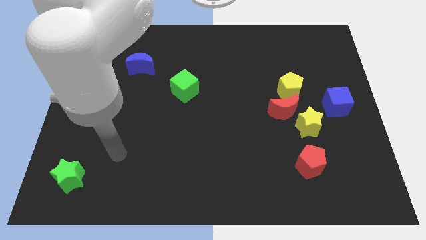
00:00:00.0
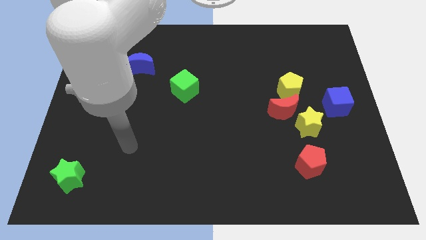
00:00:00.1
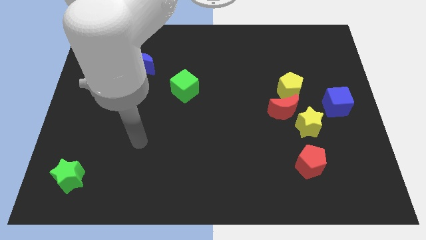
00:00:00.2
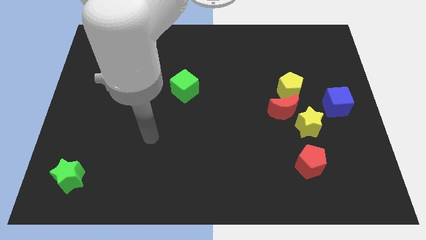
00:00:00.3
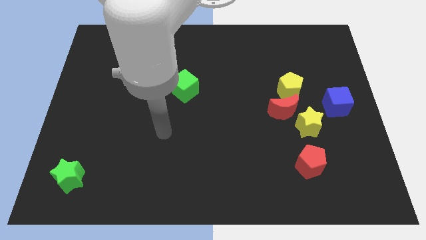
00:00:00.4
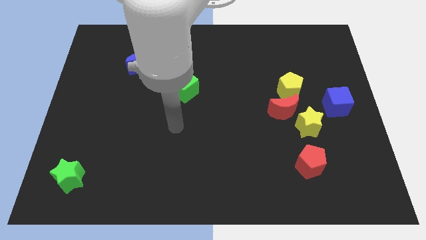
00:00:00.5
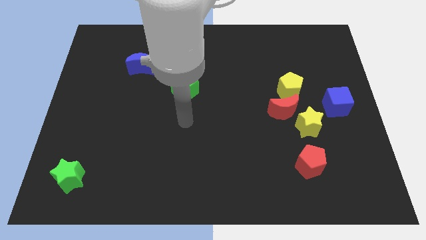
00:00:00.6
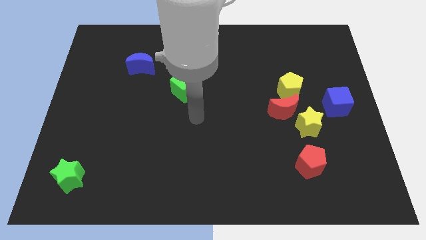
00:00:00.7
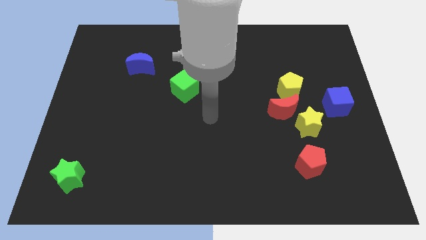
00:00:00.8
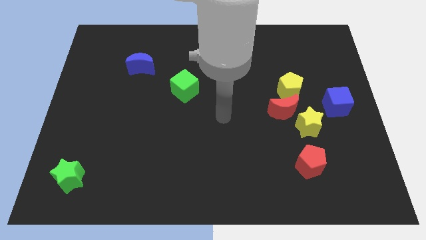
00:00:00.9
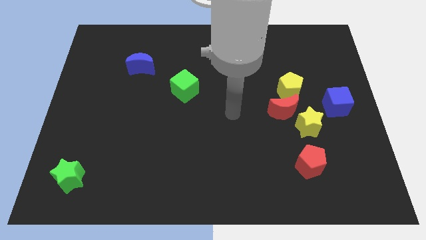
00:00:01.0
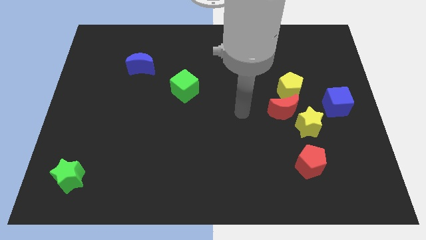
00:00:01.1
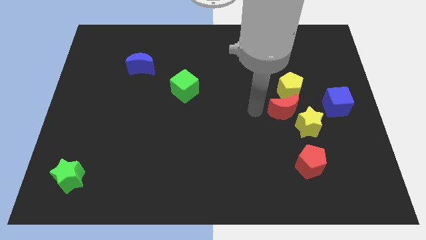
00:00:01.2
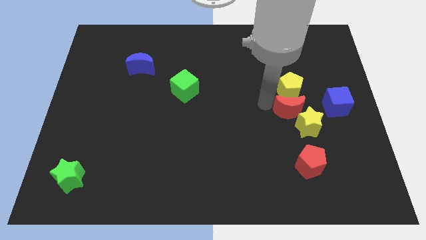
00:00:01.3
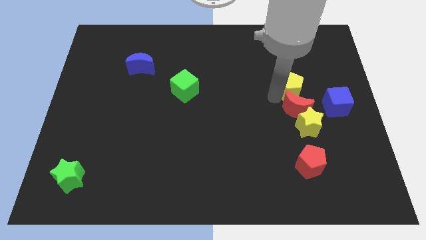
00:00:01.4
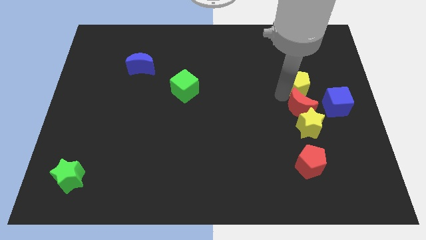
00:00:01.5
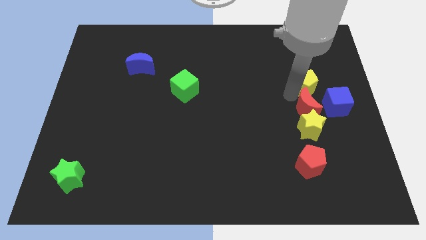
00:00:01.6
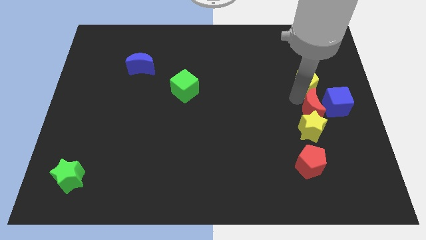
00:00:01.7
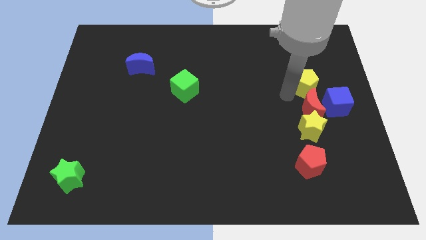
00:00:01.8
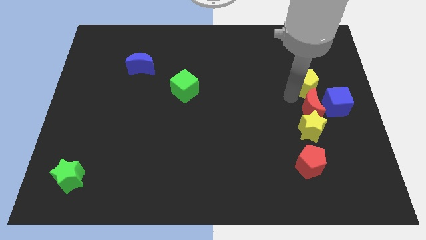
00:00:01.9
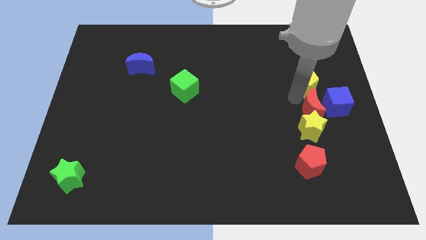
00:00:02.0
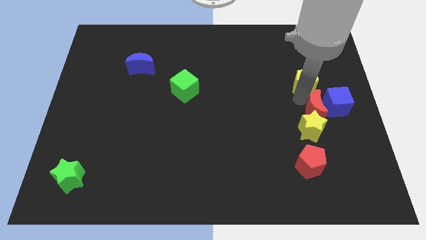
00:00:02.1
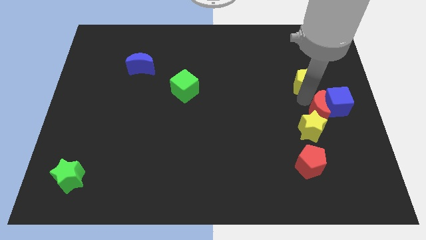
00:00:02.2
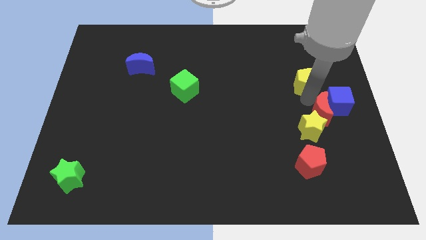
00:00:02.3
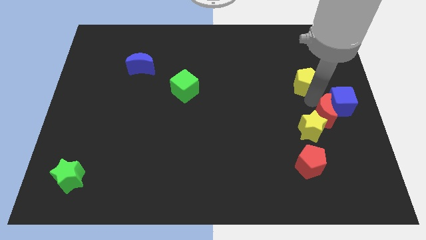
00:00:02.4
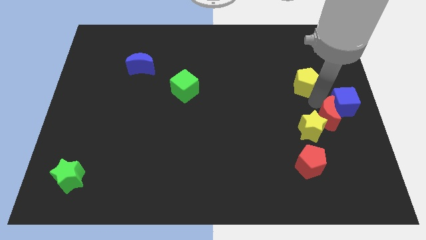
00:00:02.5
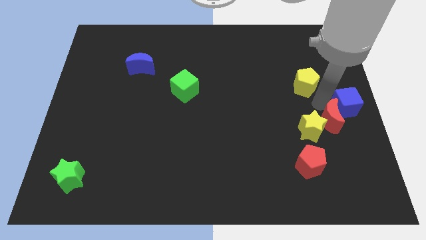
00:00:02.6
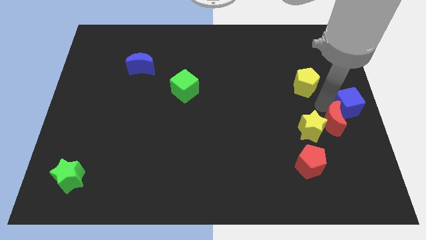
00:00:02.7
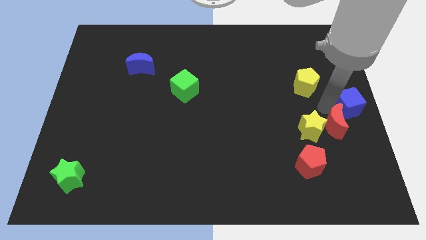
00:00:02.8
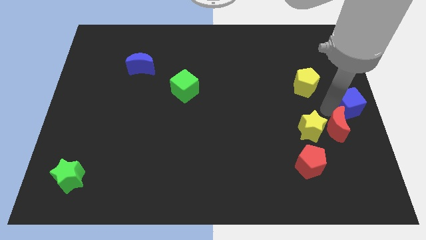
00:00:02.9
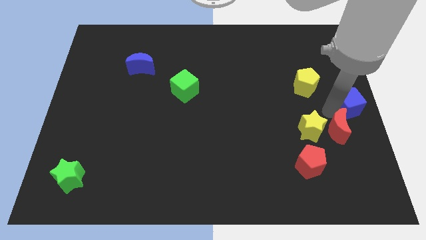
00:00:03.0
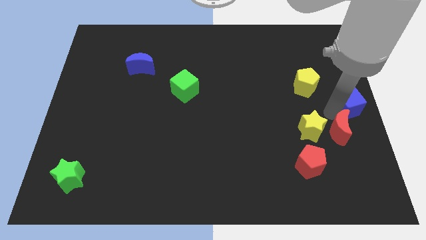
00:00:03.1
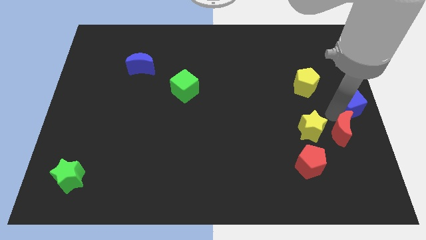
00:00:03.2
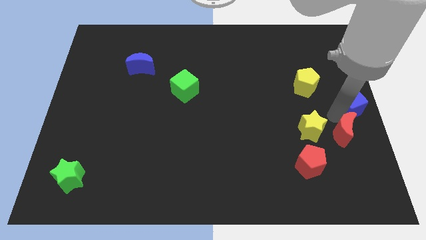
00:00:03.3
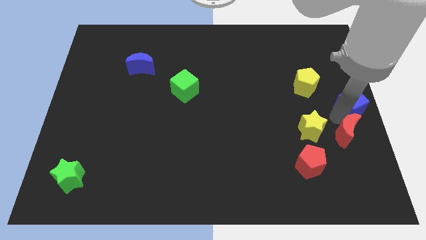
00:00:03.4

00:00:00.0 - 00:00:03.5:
separate the red moon from the yellow star and yellow pentagon

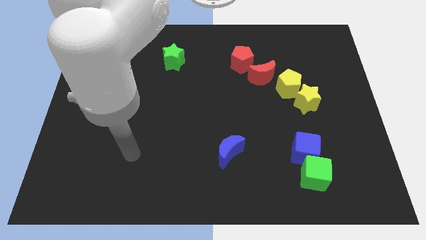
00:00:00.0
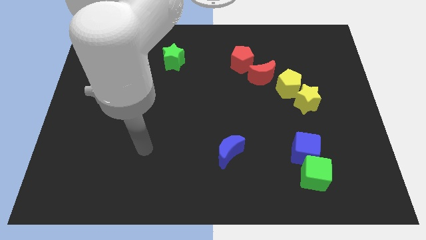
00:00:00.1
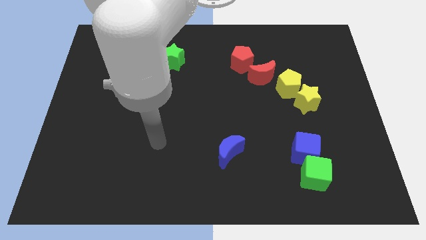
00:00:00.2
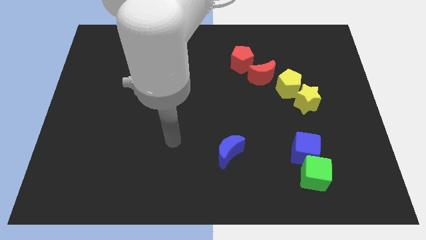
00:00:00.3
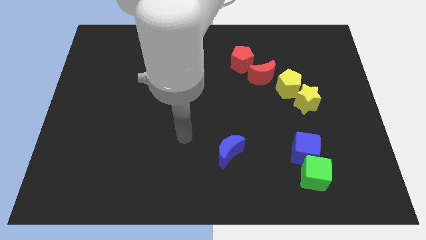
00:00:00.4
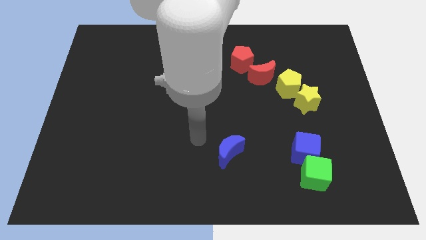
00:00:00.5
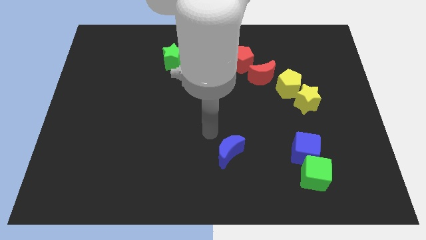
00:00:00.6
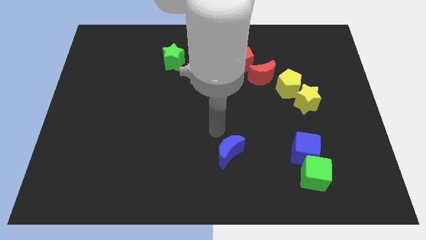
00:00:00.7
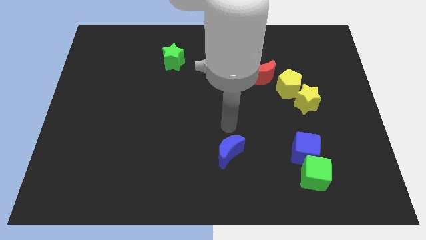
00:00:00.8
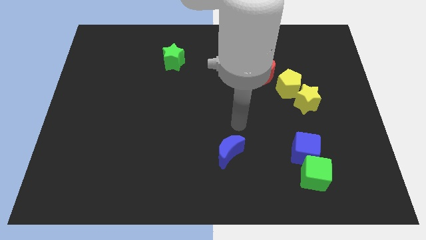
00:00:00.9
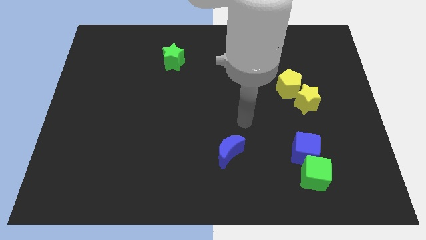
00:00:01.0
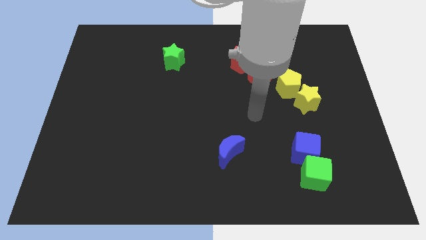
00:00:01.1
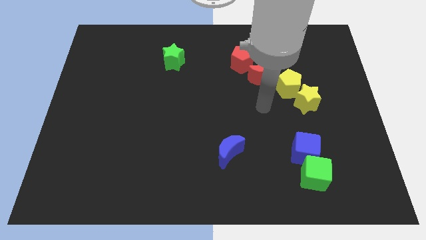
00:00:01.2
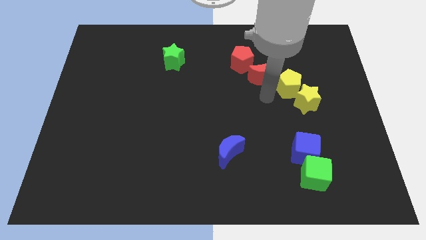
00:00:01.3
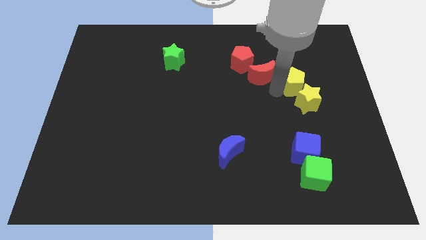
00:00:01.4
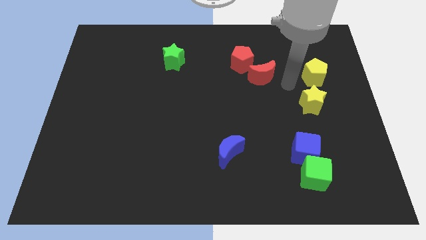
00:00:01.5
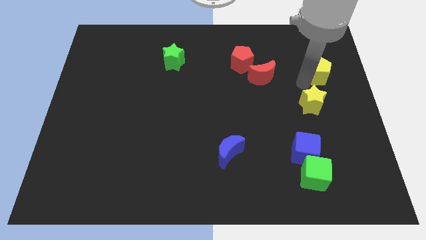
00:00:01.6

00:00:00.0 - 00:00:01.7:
separate the yellow star from the yellow pentagon

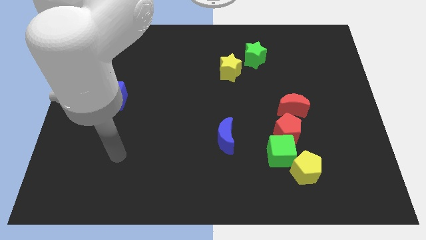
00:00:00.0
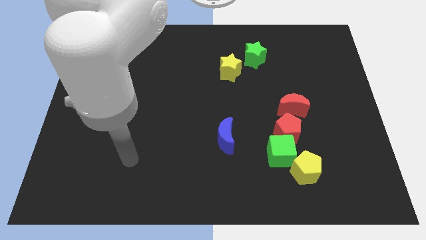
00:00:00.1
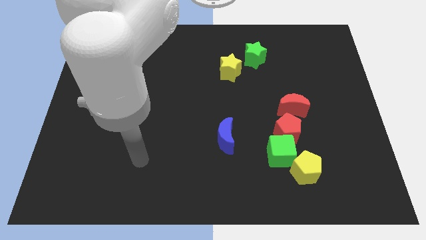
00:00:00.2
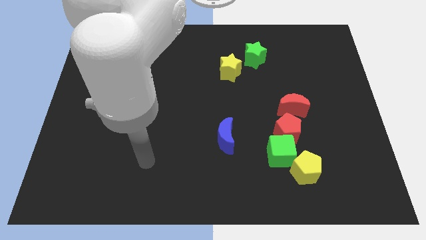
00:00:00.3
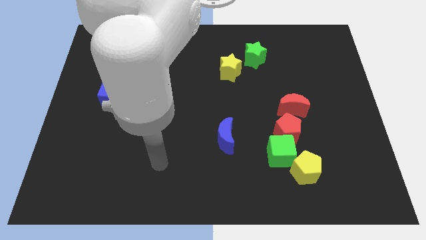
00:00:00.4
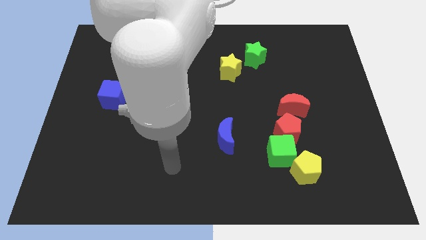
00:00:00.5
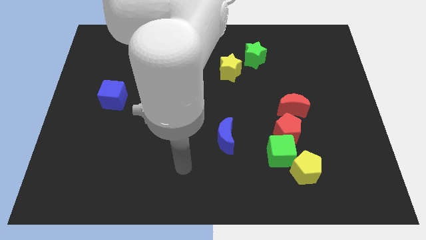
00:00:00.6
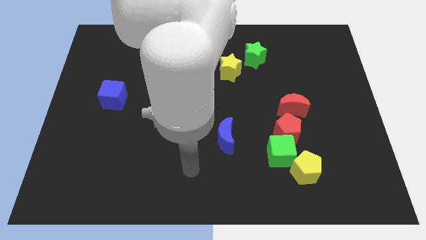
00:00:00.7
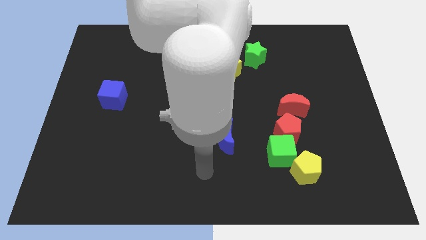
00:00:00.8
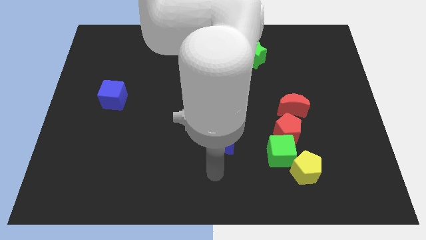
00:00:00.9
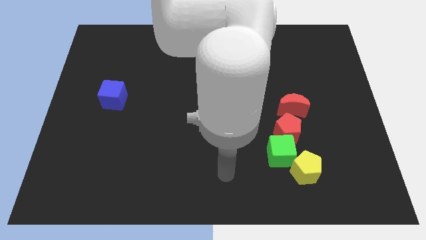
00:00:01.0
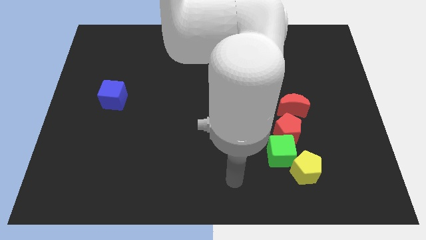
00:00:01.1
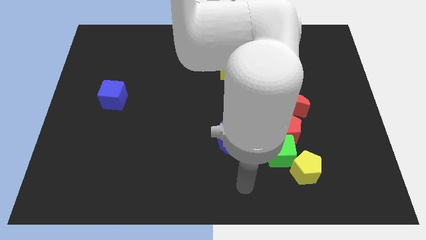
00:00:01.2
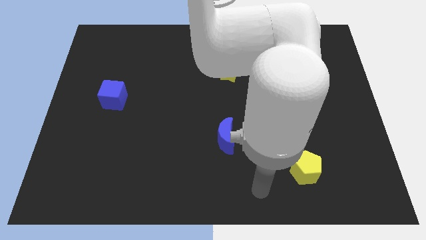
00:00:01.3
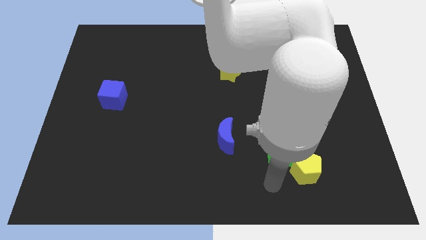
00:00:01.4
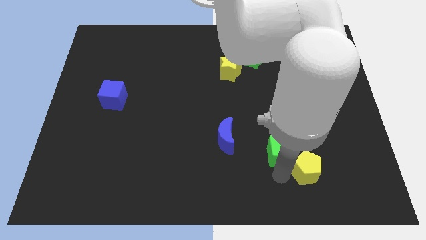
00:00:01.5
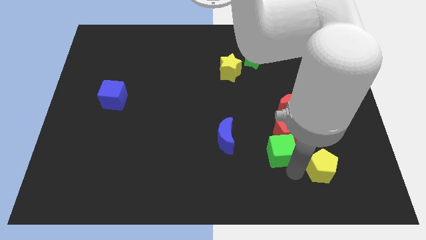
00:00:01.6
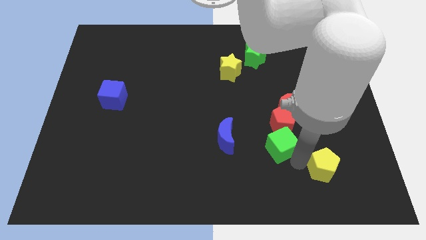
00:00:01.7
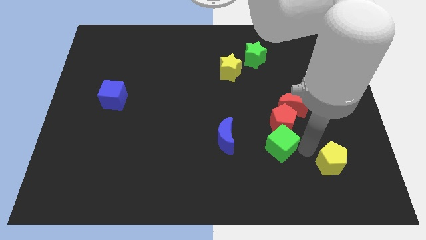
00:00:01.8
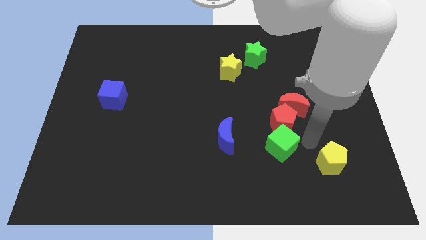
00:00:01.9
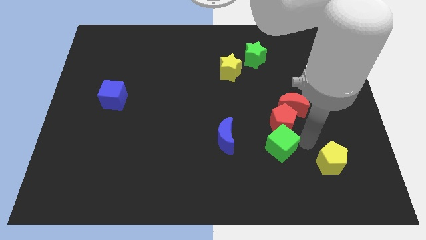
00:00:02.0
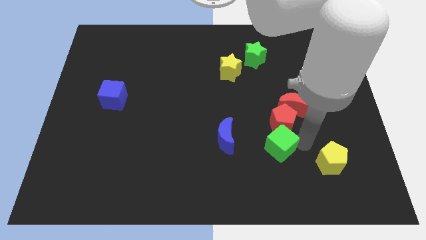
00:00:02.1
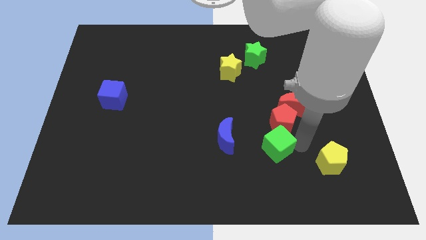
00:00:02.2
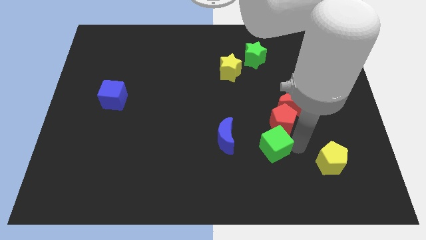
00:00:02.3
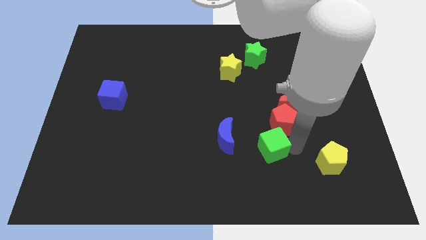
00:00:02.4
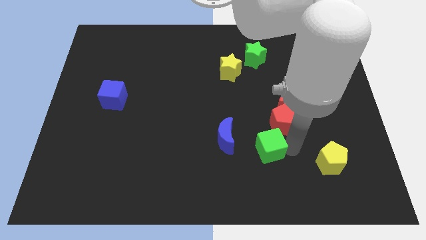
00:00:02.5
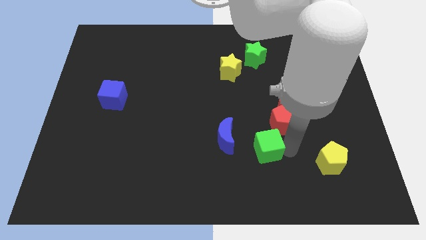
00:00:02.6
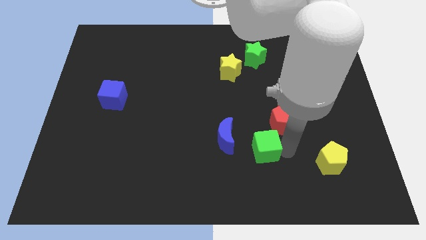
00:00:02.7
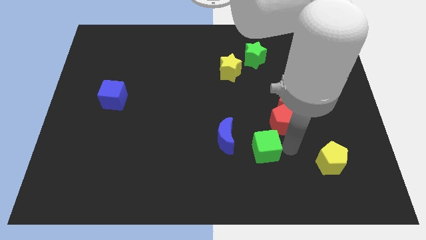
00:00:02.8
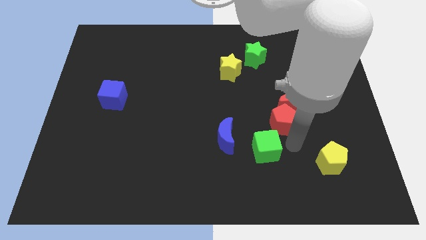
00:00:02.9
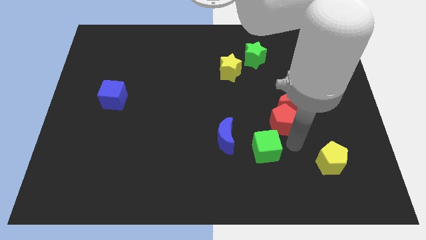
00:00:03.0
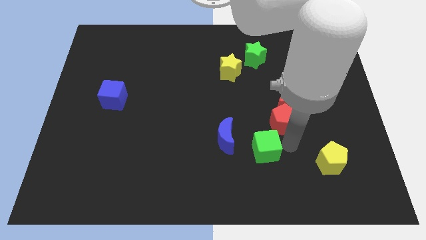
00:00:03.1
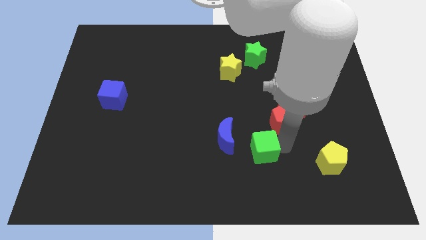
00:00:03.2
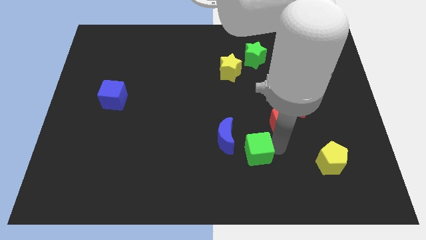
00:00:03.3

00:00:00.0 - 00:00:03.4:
pull the green cube apart from the red pentagon and yellow pentagon

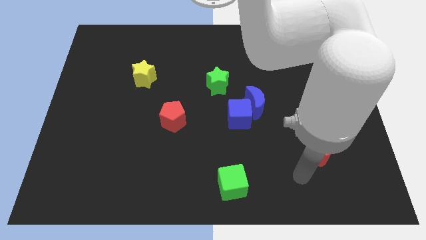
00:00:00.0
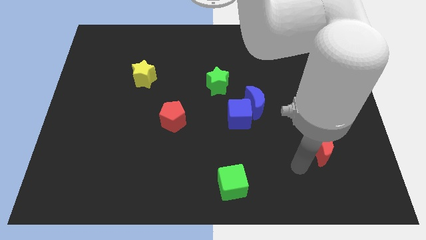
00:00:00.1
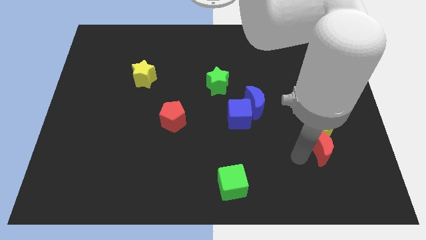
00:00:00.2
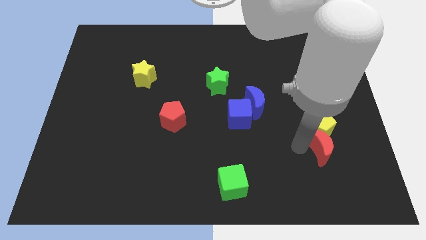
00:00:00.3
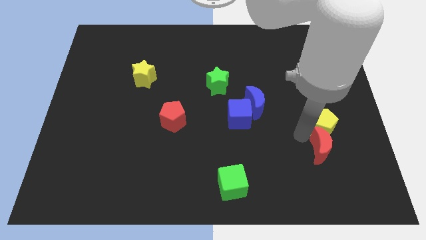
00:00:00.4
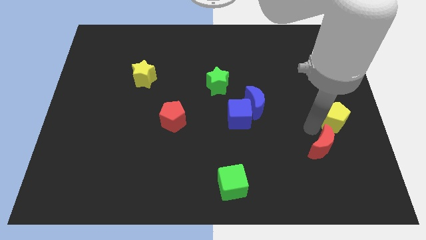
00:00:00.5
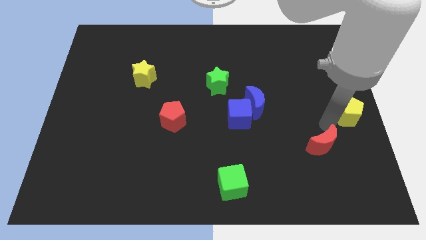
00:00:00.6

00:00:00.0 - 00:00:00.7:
move the red moon away from the yellow pentagon
